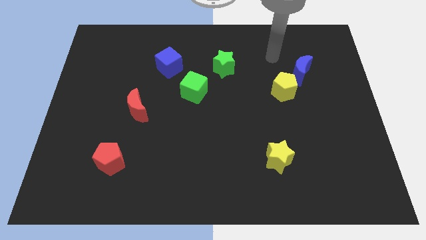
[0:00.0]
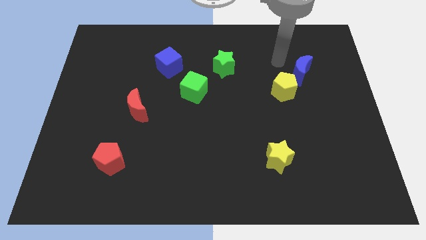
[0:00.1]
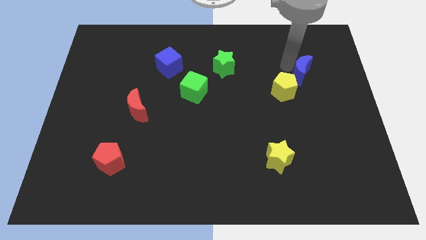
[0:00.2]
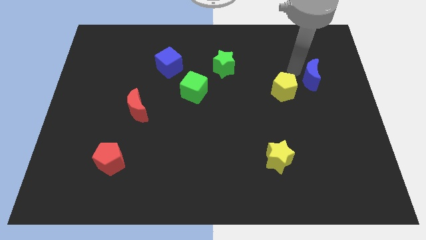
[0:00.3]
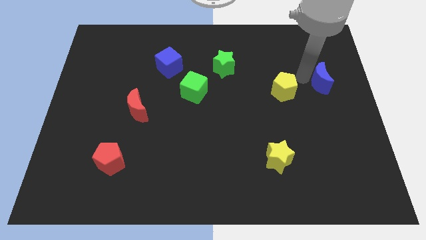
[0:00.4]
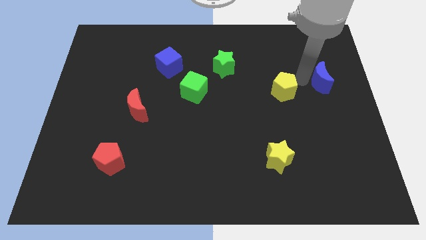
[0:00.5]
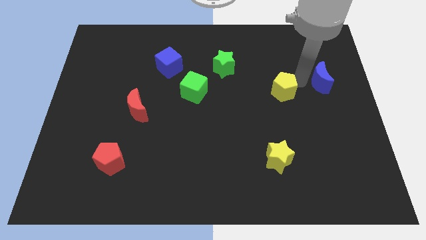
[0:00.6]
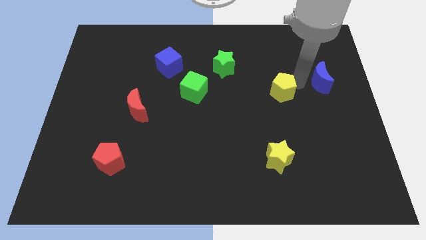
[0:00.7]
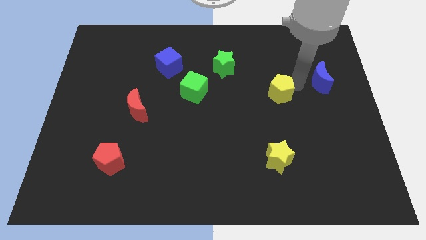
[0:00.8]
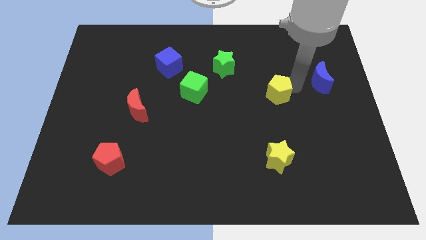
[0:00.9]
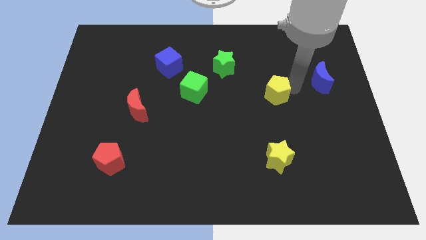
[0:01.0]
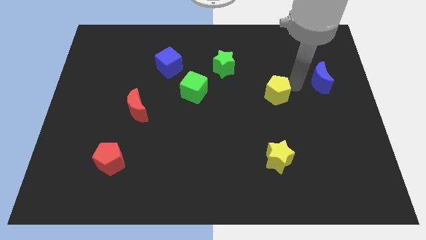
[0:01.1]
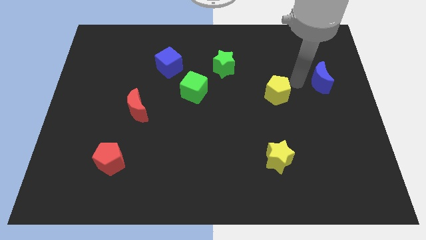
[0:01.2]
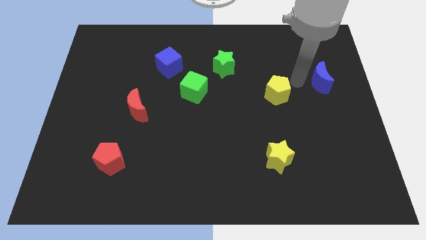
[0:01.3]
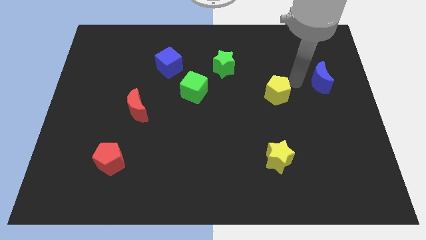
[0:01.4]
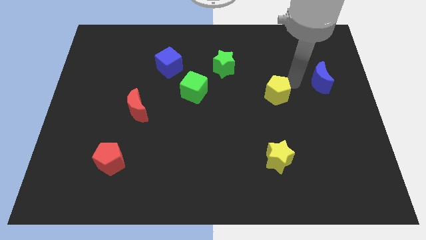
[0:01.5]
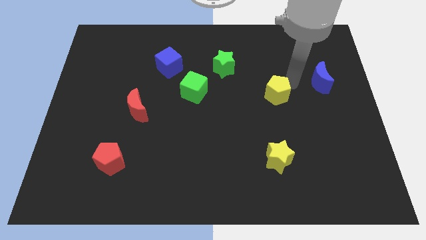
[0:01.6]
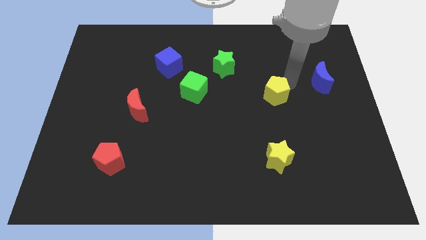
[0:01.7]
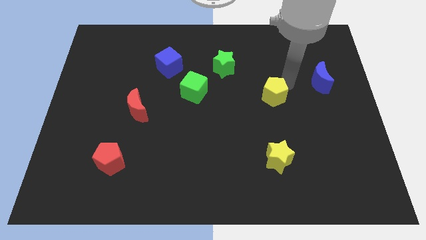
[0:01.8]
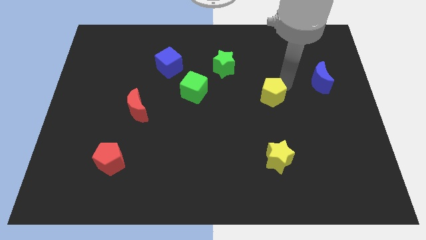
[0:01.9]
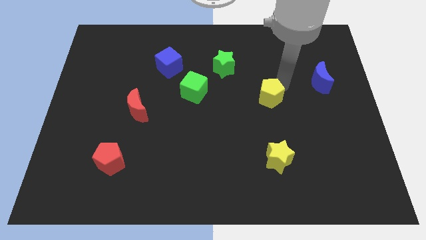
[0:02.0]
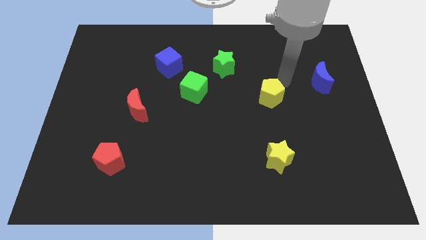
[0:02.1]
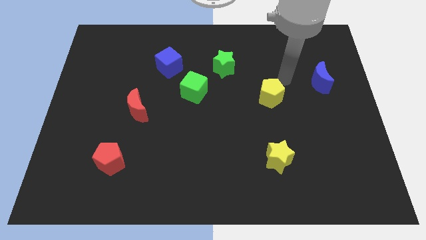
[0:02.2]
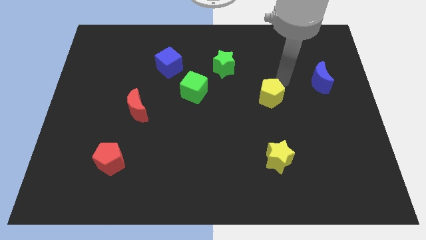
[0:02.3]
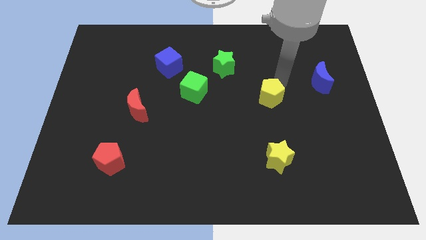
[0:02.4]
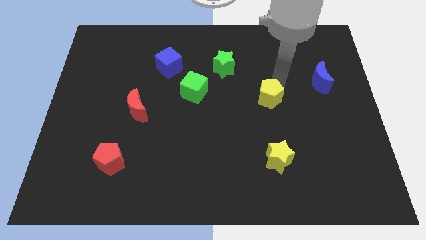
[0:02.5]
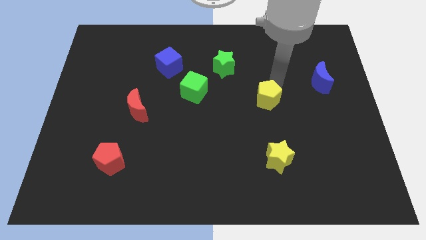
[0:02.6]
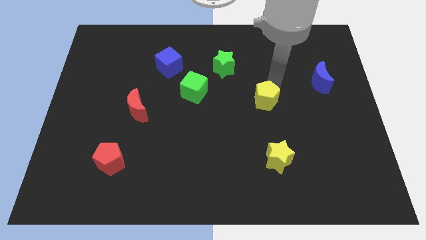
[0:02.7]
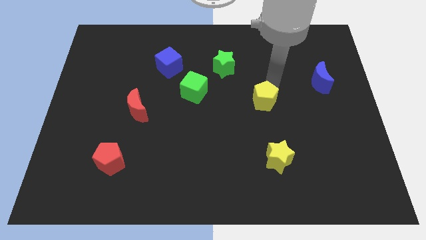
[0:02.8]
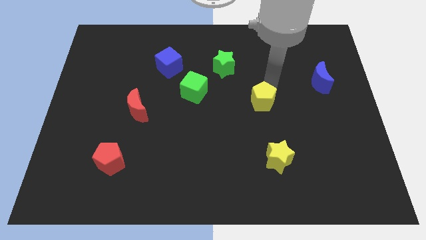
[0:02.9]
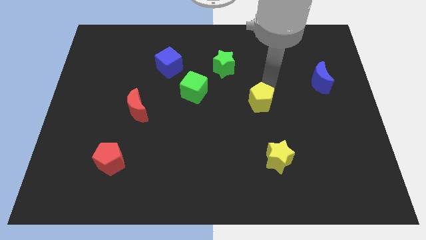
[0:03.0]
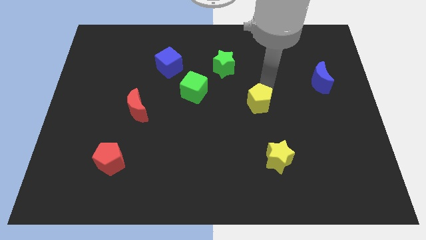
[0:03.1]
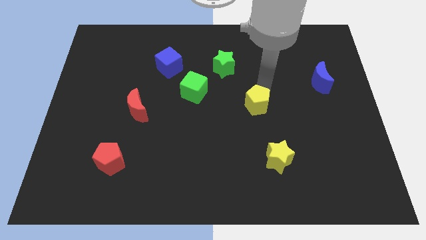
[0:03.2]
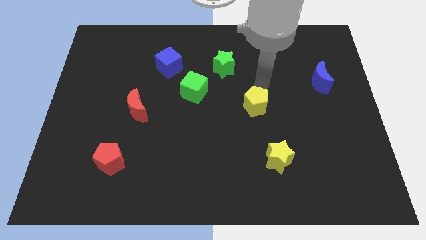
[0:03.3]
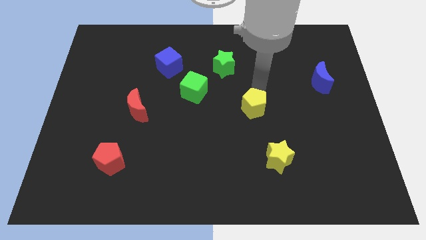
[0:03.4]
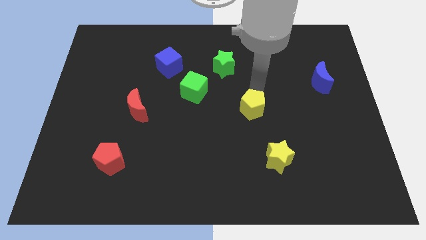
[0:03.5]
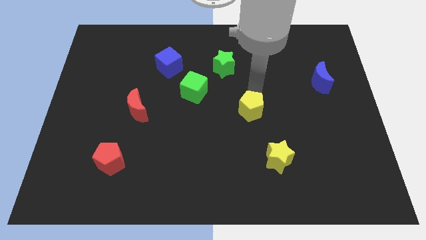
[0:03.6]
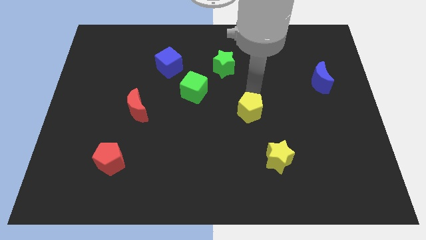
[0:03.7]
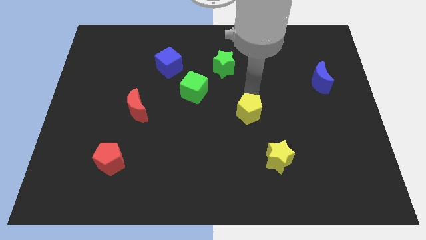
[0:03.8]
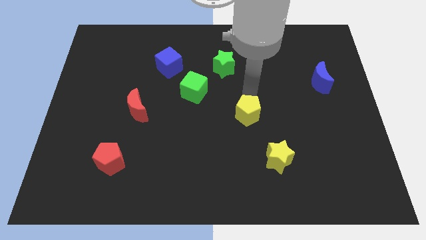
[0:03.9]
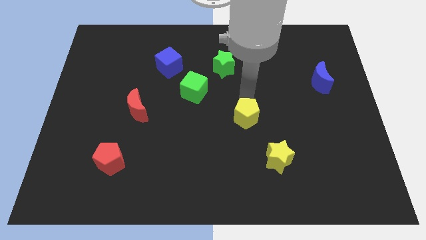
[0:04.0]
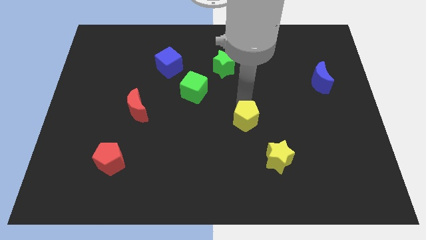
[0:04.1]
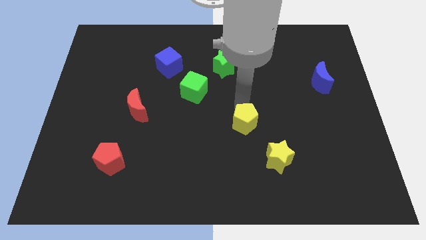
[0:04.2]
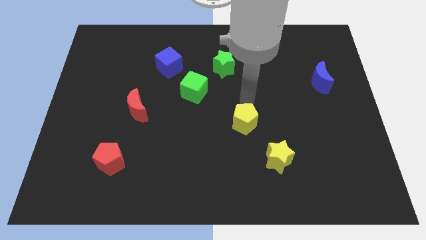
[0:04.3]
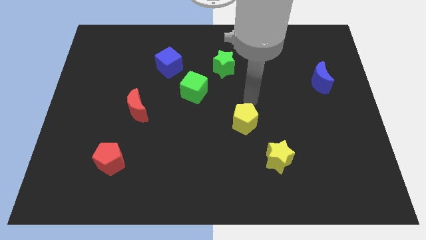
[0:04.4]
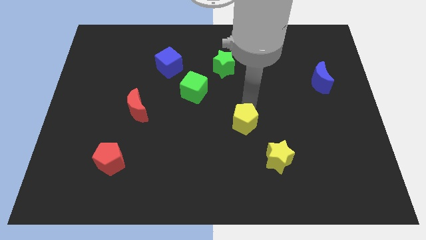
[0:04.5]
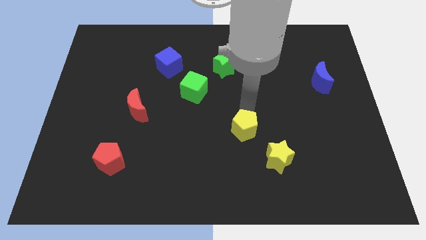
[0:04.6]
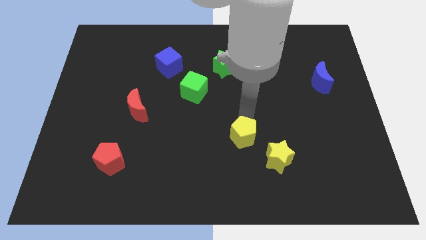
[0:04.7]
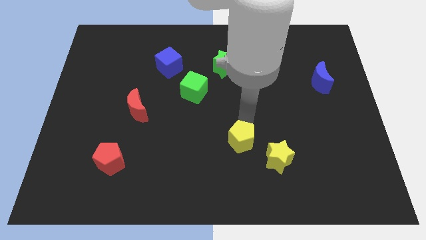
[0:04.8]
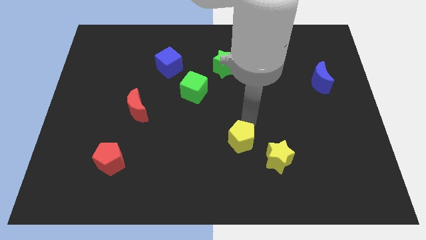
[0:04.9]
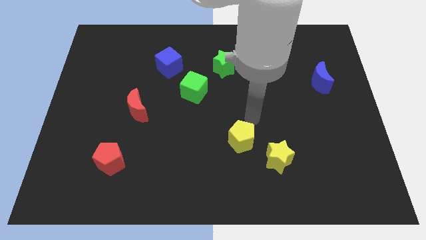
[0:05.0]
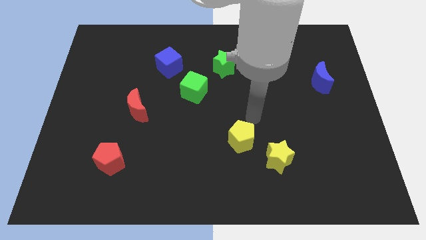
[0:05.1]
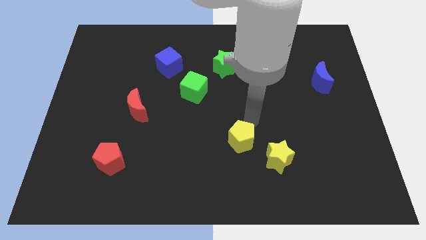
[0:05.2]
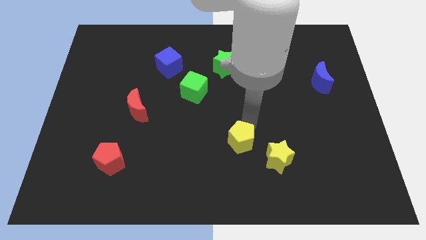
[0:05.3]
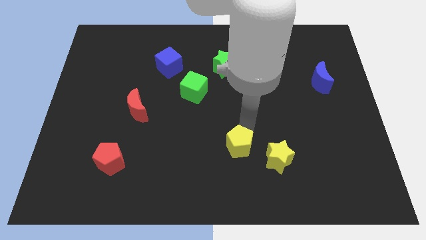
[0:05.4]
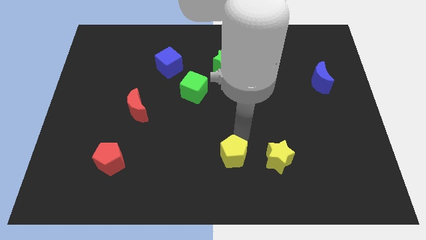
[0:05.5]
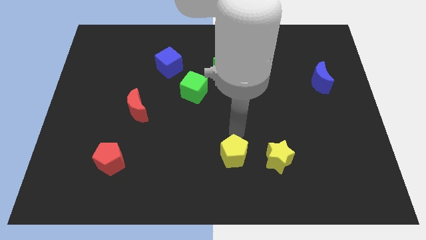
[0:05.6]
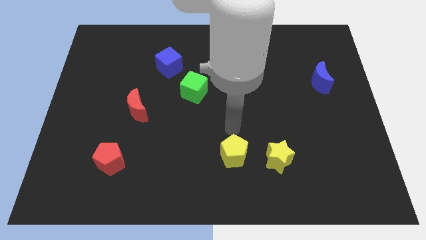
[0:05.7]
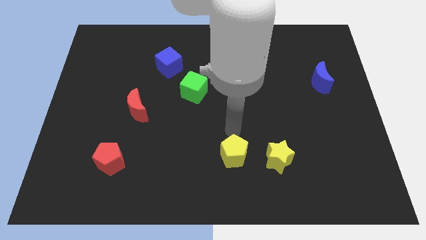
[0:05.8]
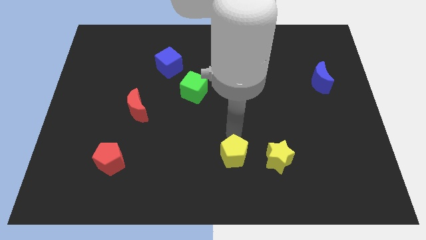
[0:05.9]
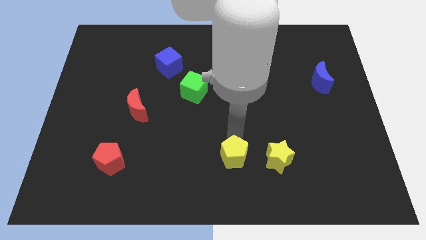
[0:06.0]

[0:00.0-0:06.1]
put the yellow pentagon to the bottom
